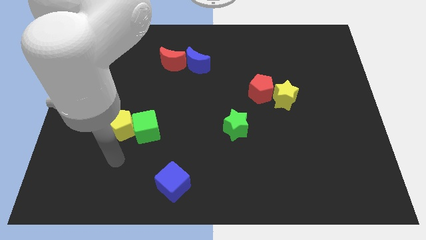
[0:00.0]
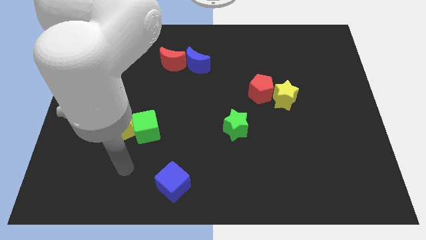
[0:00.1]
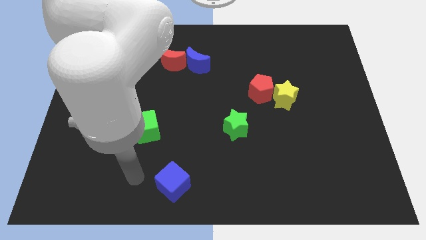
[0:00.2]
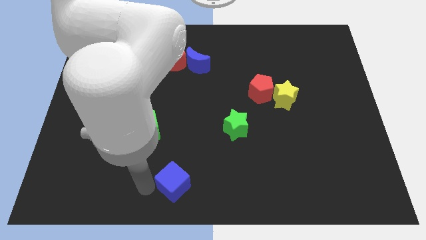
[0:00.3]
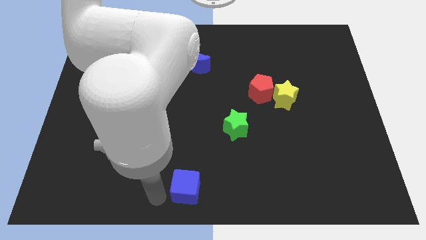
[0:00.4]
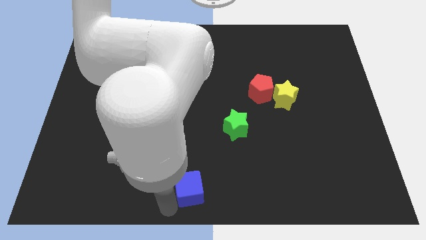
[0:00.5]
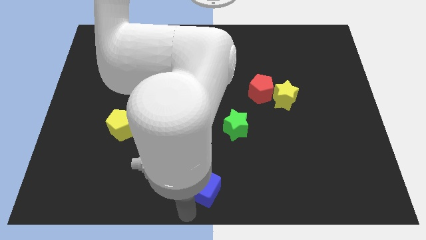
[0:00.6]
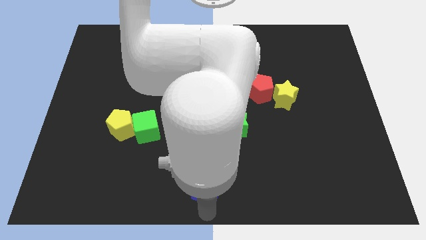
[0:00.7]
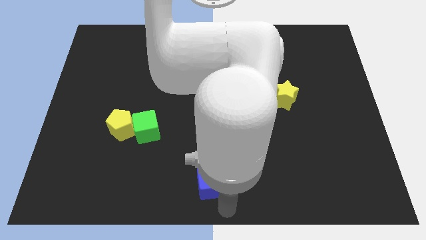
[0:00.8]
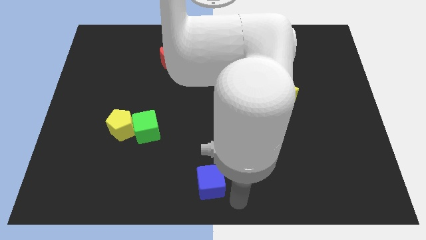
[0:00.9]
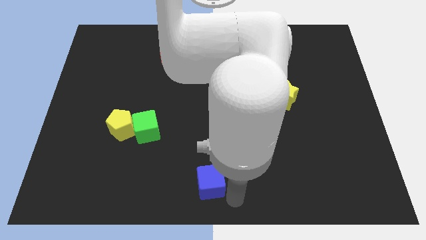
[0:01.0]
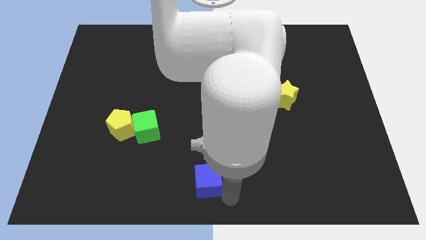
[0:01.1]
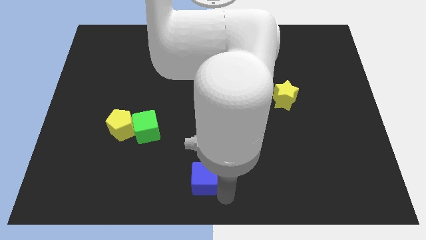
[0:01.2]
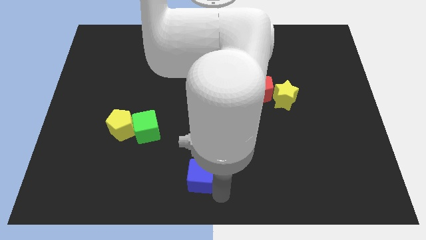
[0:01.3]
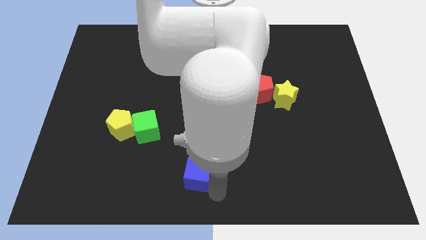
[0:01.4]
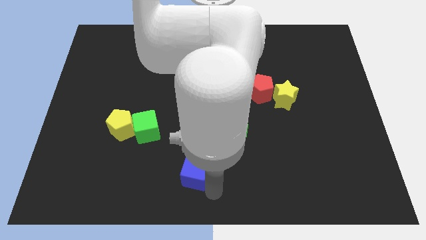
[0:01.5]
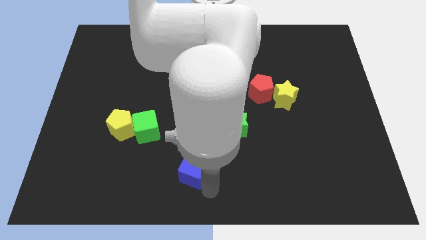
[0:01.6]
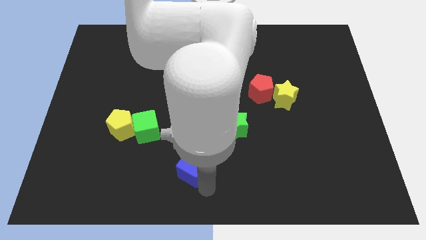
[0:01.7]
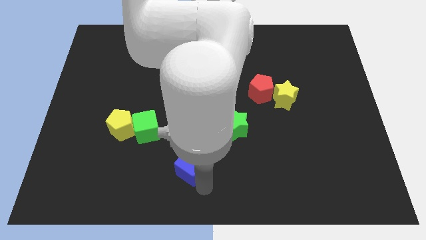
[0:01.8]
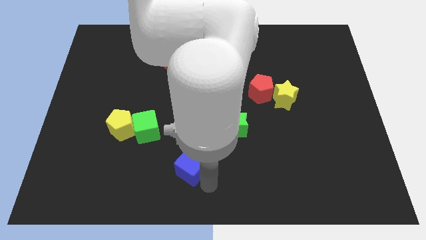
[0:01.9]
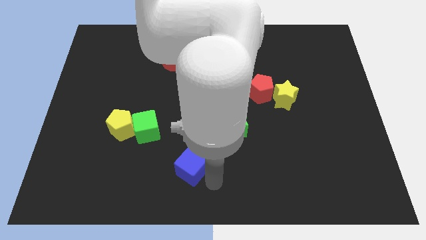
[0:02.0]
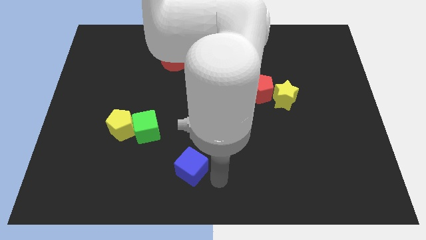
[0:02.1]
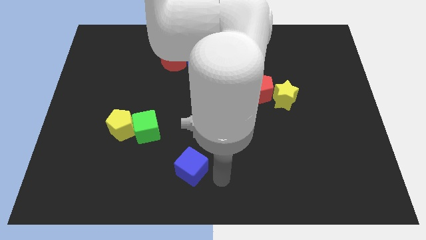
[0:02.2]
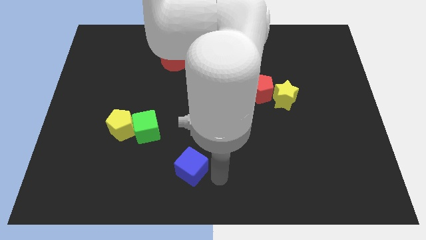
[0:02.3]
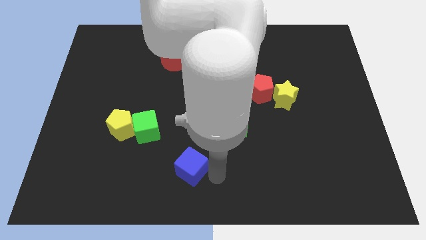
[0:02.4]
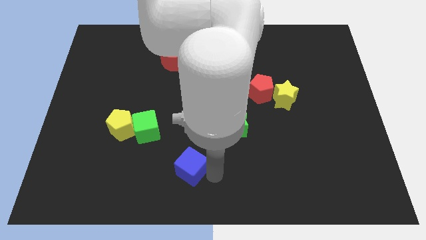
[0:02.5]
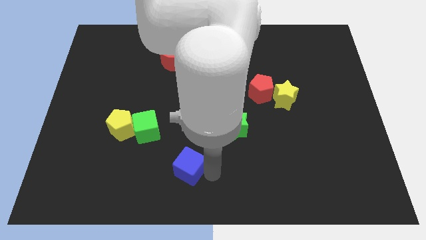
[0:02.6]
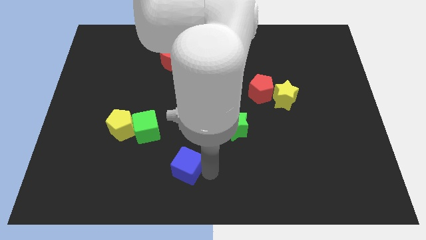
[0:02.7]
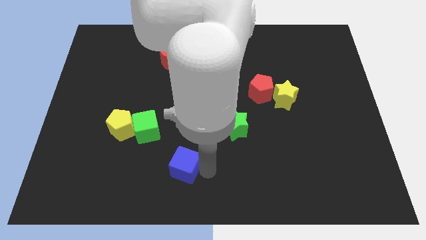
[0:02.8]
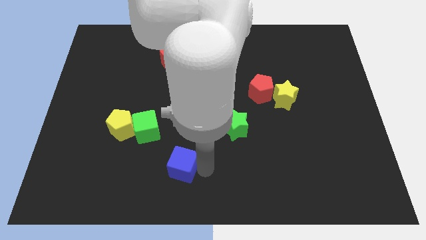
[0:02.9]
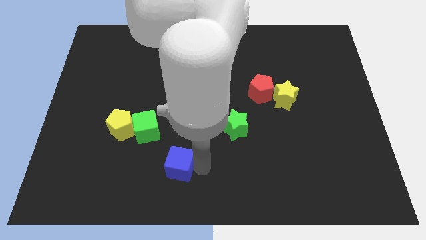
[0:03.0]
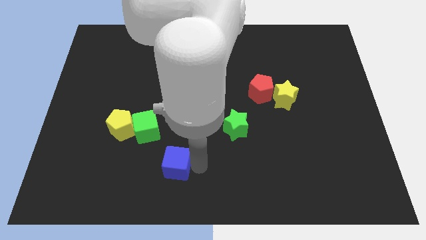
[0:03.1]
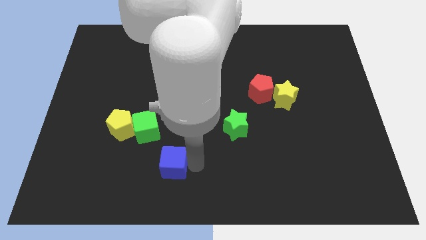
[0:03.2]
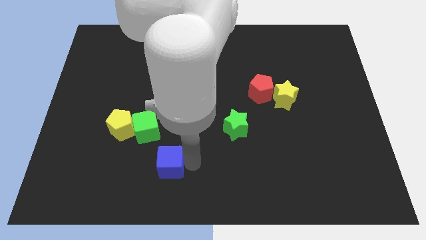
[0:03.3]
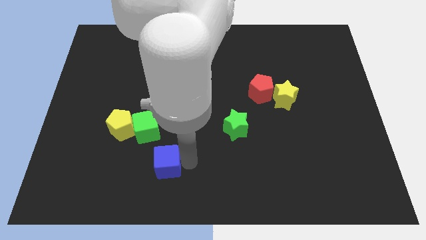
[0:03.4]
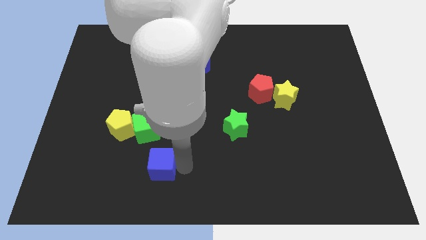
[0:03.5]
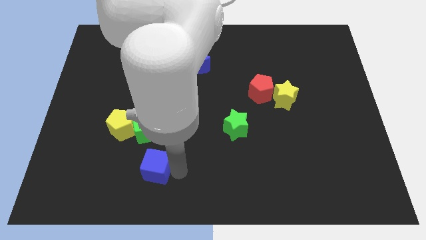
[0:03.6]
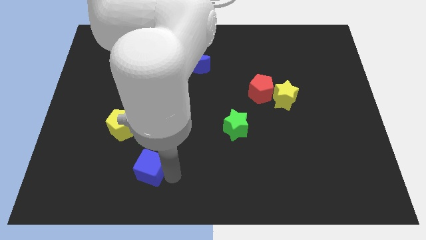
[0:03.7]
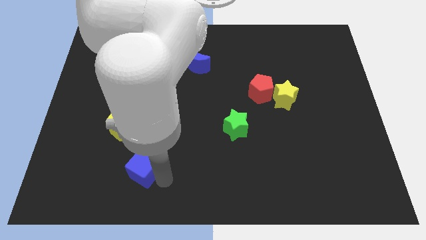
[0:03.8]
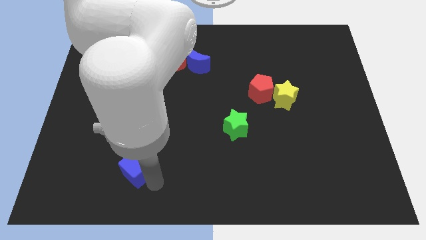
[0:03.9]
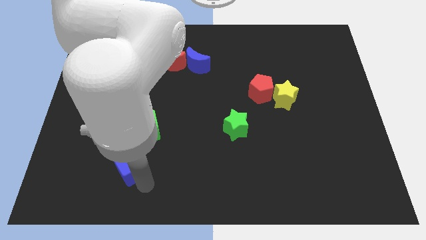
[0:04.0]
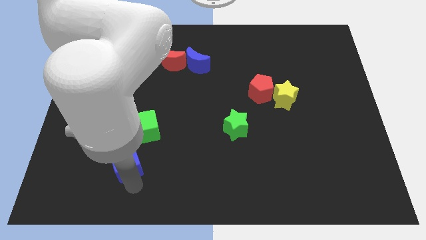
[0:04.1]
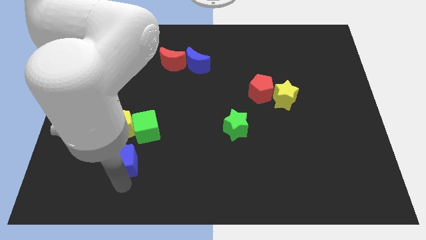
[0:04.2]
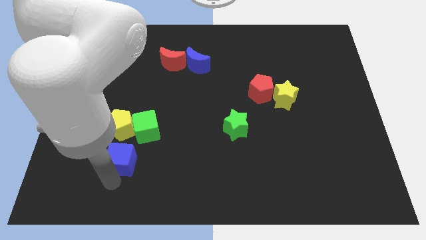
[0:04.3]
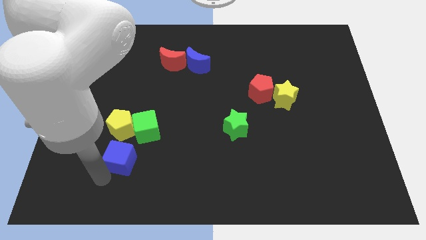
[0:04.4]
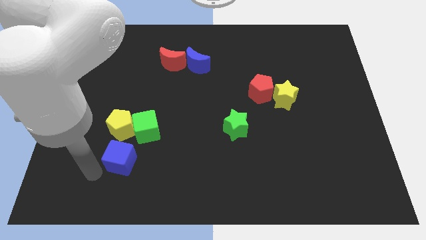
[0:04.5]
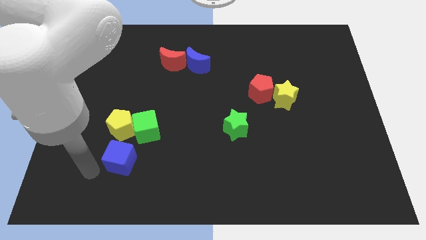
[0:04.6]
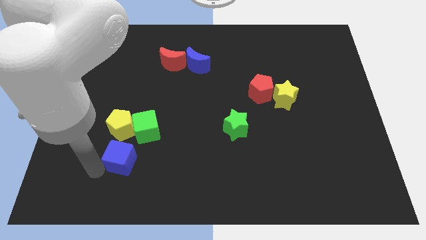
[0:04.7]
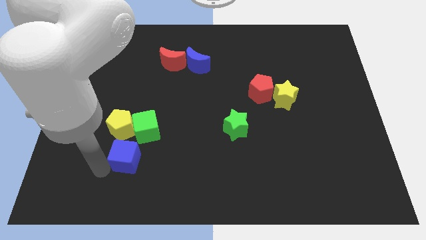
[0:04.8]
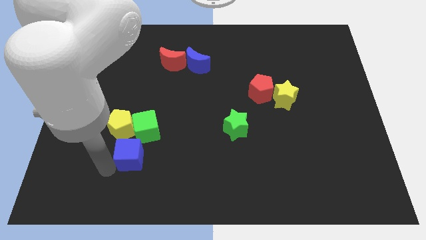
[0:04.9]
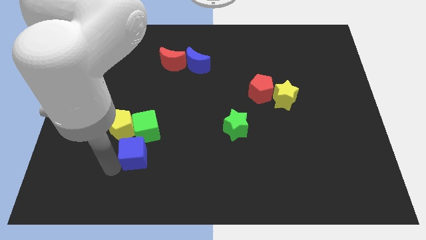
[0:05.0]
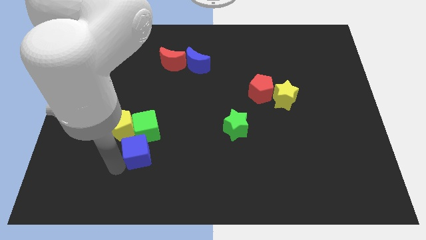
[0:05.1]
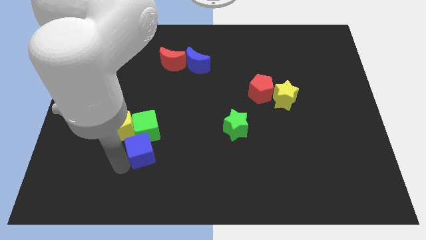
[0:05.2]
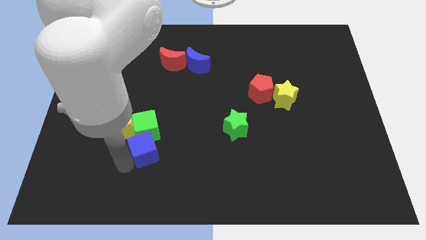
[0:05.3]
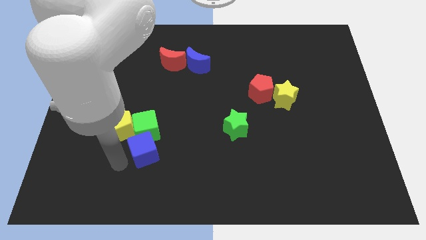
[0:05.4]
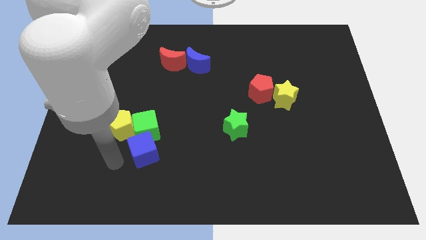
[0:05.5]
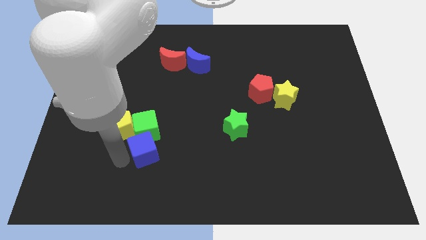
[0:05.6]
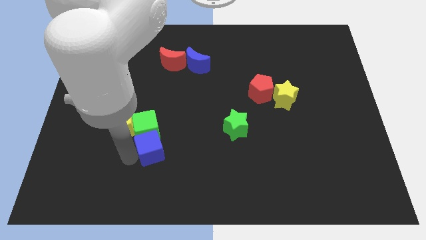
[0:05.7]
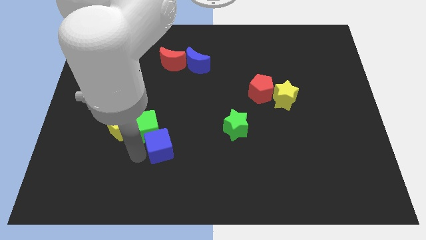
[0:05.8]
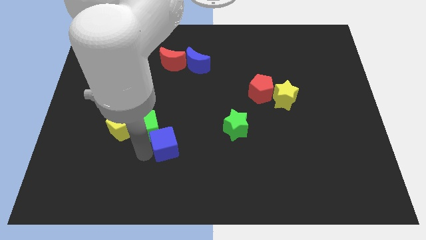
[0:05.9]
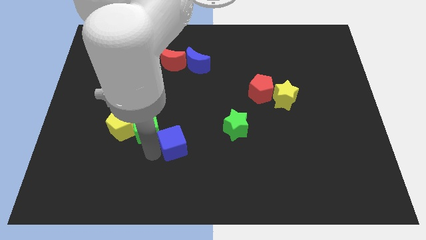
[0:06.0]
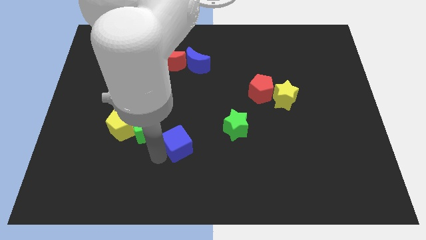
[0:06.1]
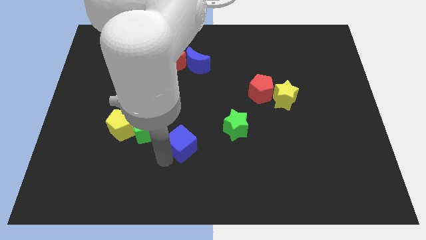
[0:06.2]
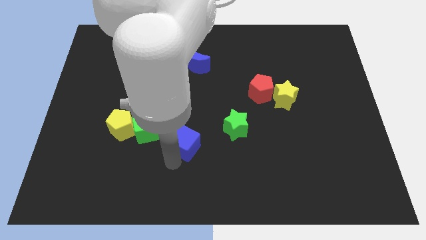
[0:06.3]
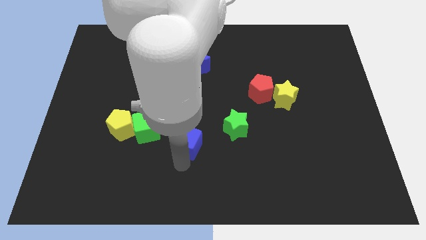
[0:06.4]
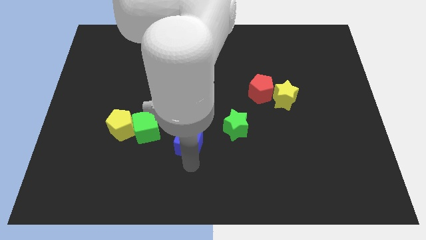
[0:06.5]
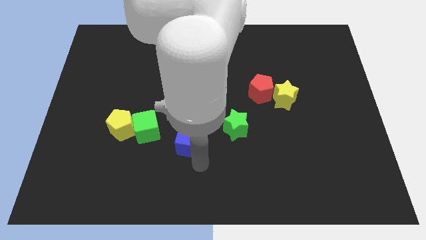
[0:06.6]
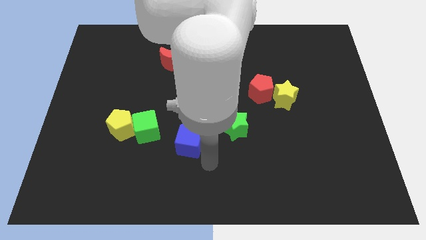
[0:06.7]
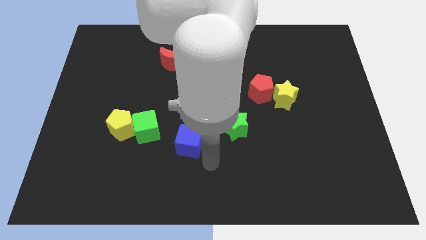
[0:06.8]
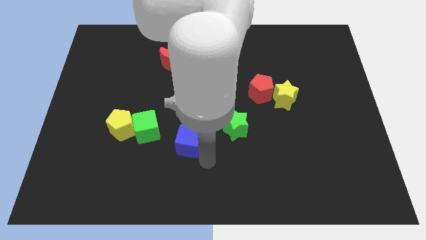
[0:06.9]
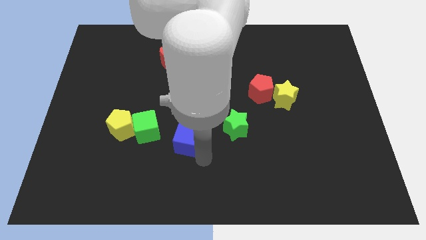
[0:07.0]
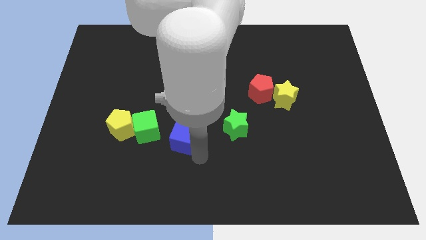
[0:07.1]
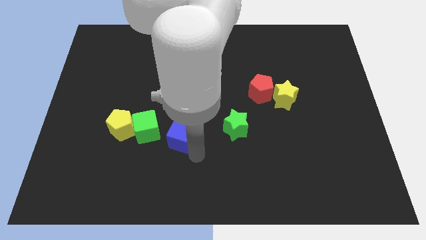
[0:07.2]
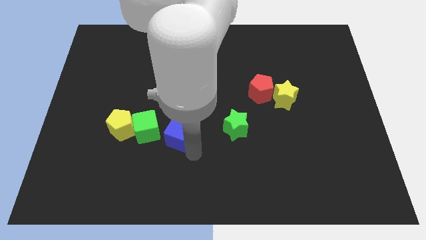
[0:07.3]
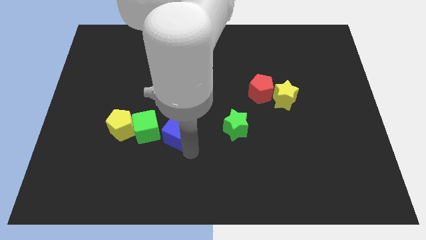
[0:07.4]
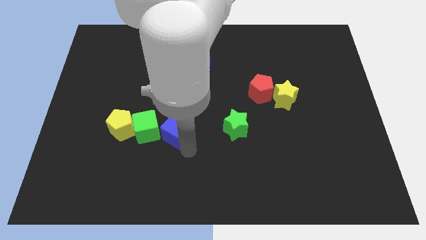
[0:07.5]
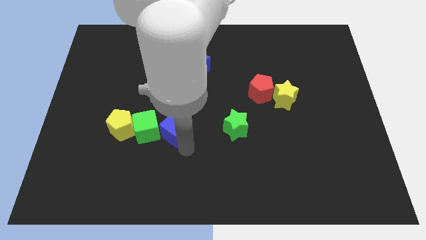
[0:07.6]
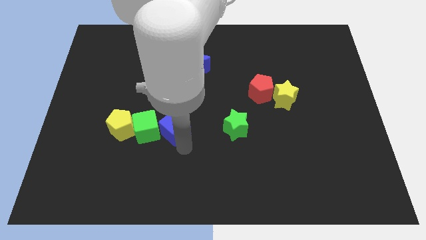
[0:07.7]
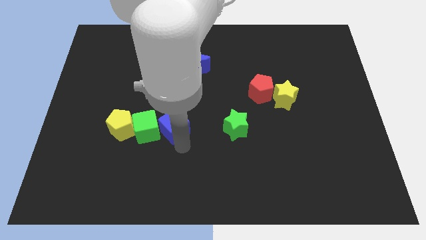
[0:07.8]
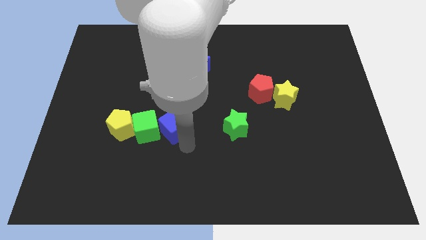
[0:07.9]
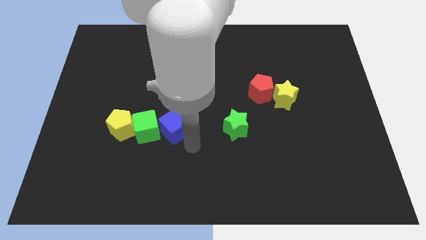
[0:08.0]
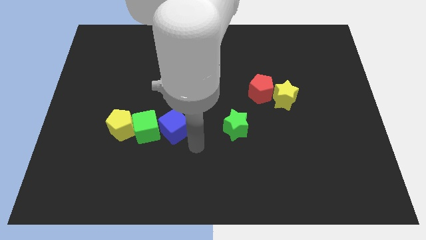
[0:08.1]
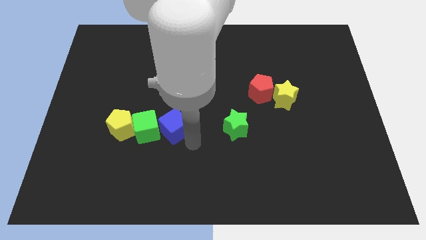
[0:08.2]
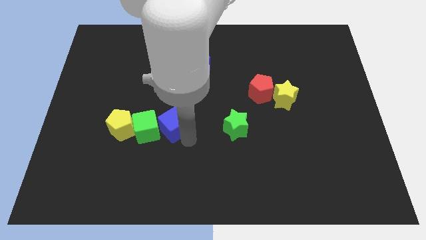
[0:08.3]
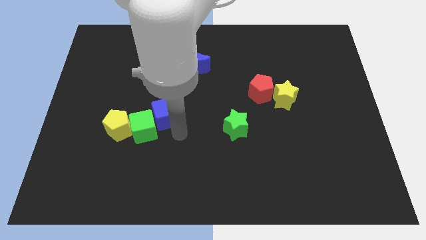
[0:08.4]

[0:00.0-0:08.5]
slide the blue cube above the green cube
